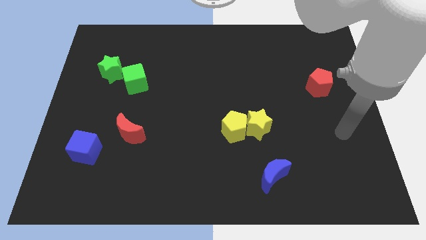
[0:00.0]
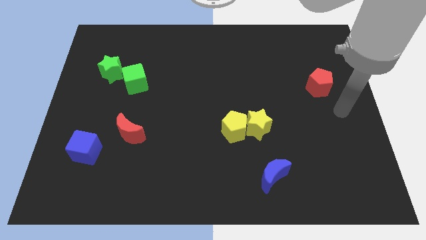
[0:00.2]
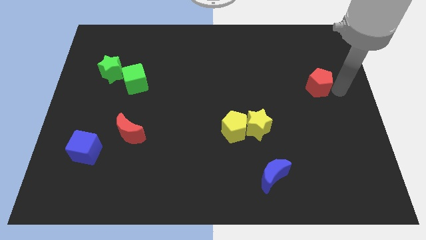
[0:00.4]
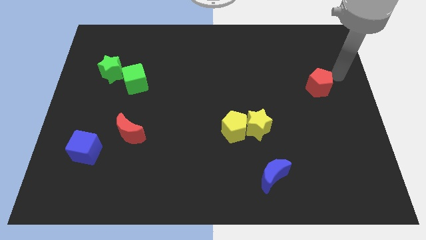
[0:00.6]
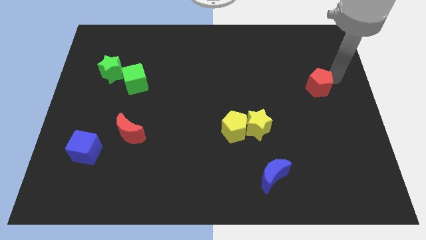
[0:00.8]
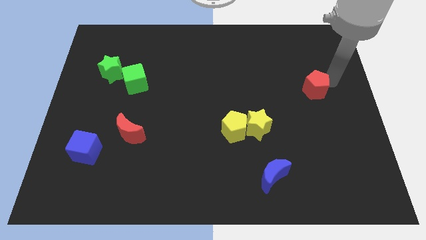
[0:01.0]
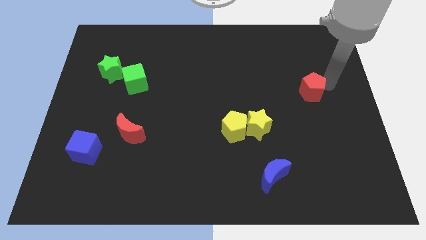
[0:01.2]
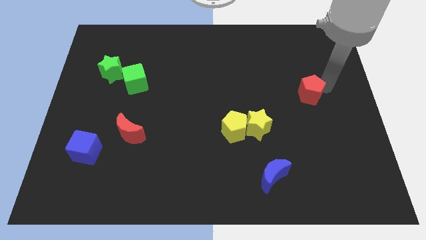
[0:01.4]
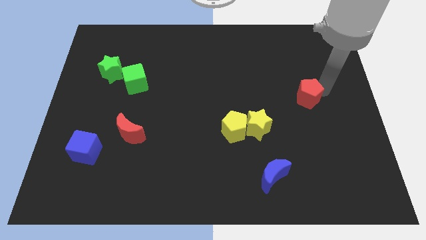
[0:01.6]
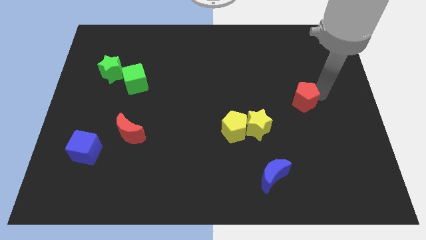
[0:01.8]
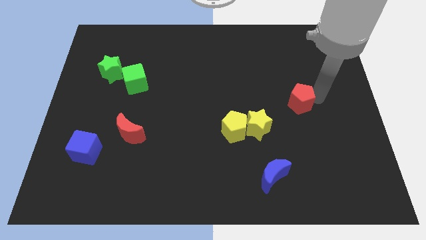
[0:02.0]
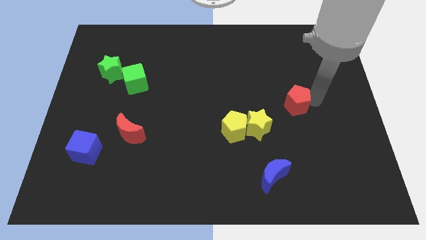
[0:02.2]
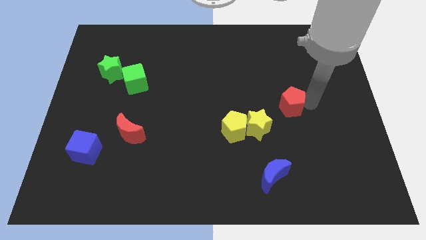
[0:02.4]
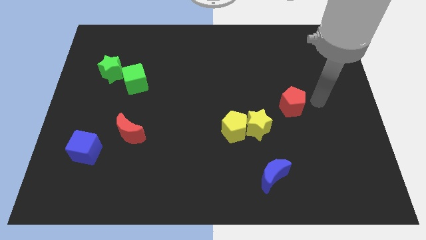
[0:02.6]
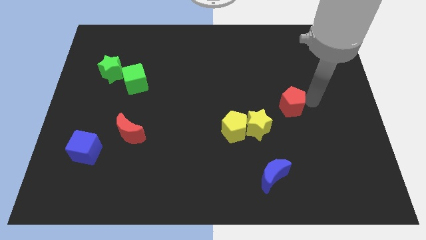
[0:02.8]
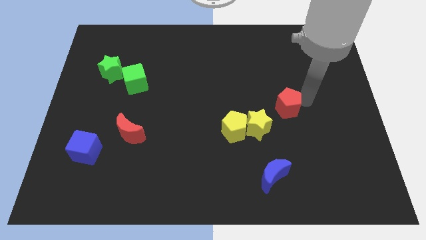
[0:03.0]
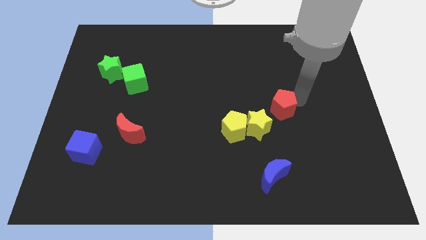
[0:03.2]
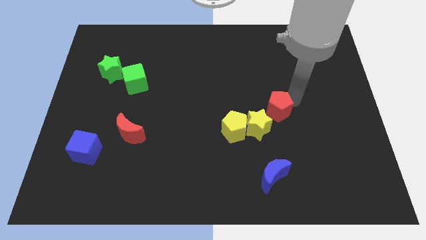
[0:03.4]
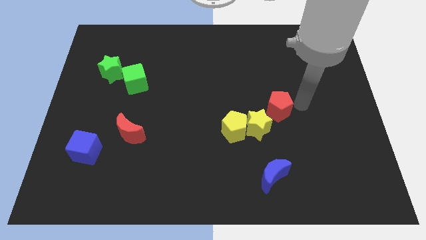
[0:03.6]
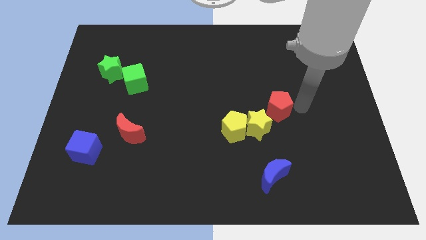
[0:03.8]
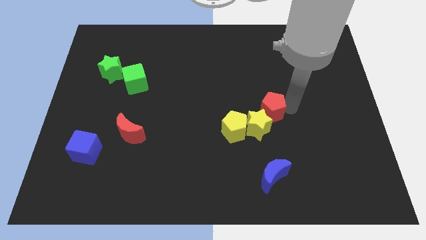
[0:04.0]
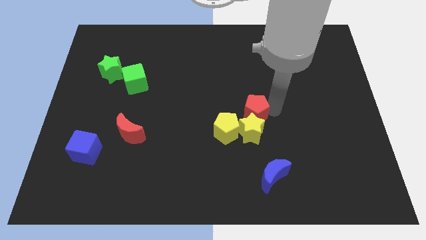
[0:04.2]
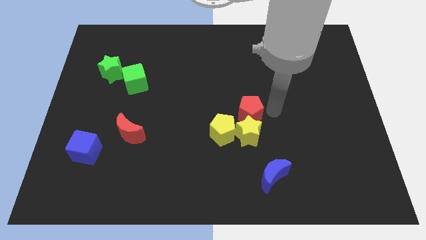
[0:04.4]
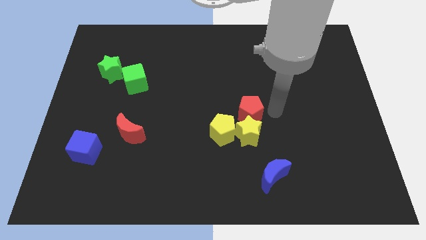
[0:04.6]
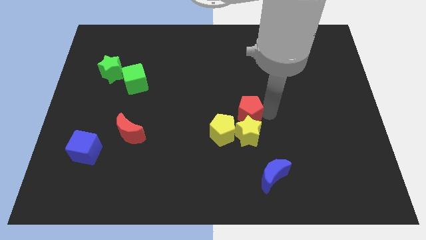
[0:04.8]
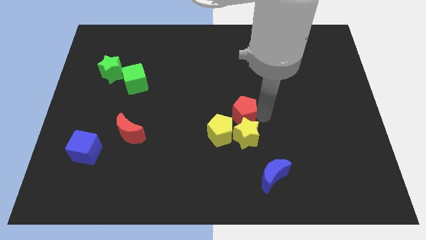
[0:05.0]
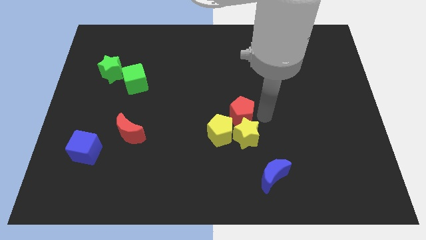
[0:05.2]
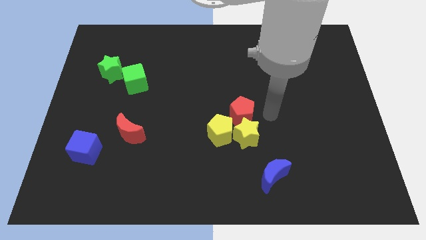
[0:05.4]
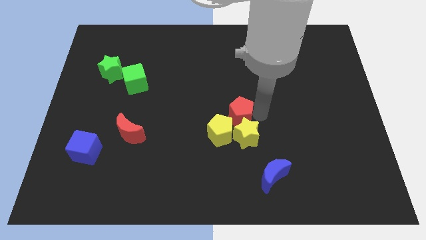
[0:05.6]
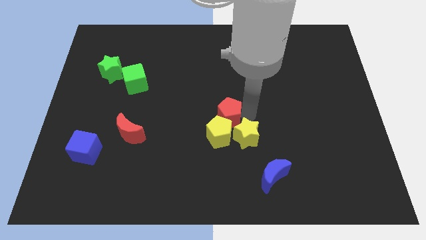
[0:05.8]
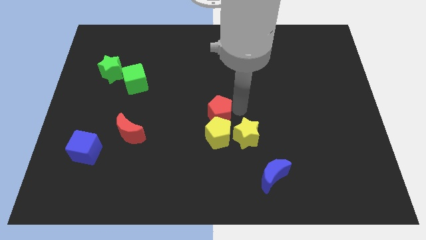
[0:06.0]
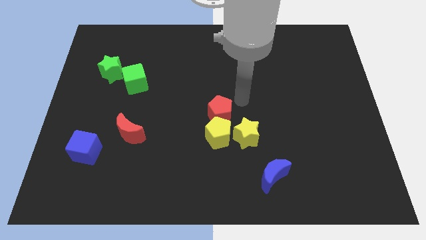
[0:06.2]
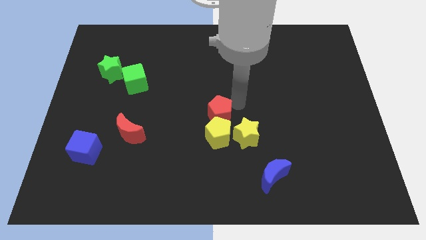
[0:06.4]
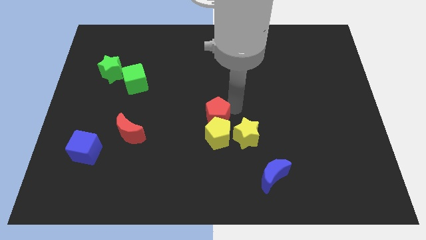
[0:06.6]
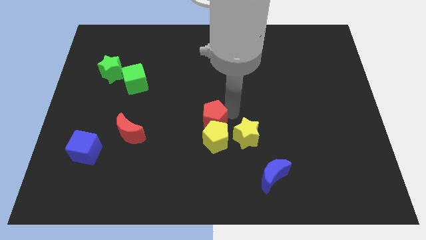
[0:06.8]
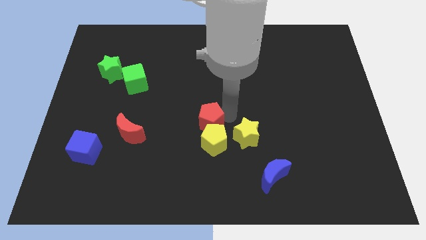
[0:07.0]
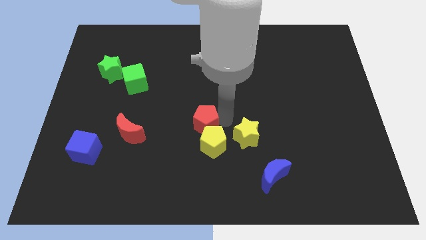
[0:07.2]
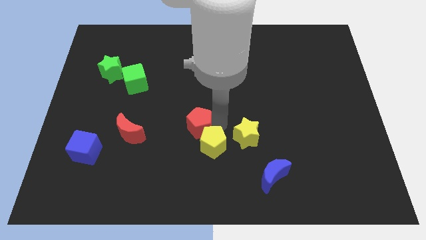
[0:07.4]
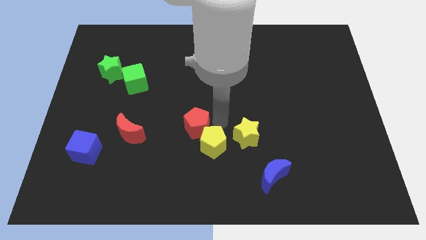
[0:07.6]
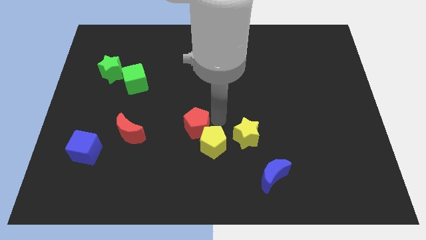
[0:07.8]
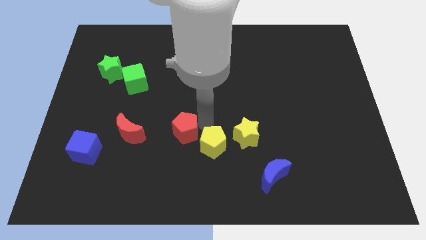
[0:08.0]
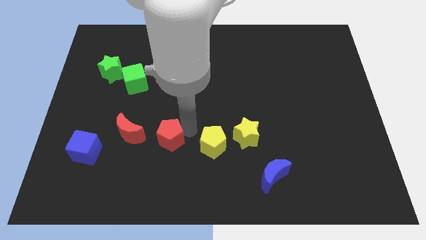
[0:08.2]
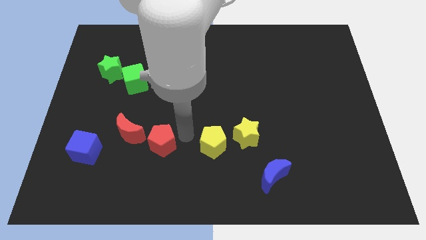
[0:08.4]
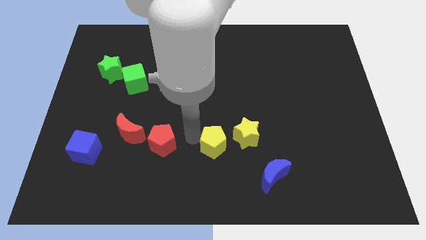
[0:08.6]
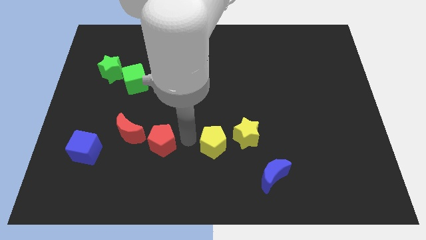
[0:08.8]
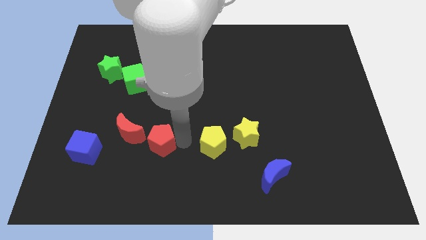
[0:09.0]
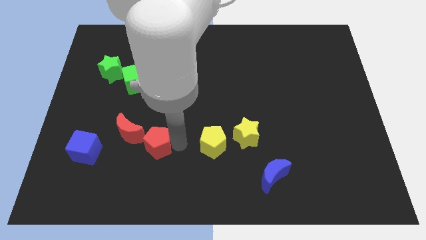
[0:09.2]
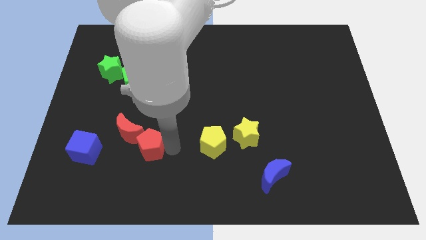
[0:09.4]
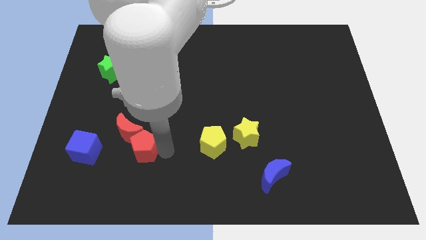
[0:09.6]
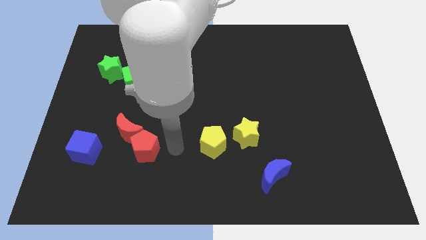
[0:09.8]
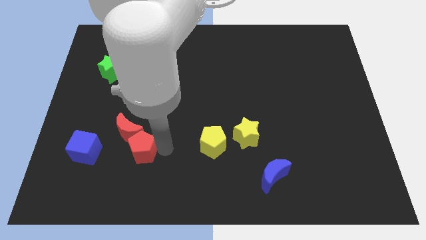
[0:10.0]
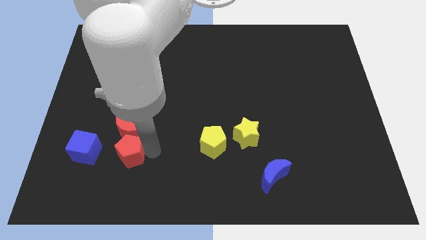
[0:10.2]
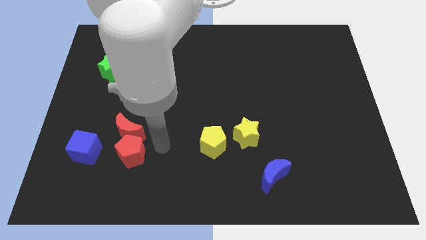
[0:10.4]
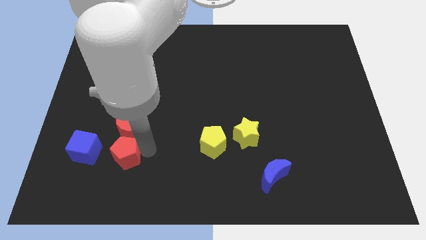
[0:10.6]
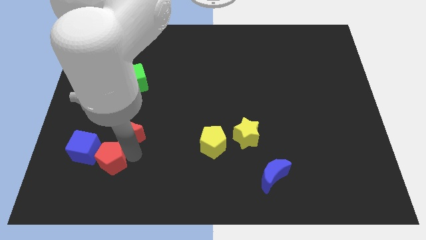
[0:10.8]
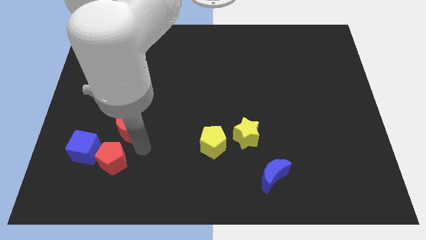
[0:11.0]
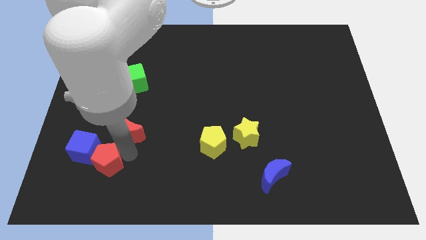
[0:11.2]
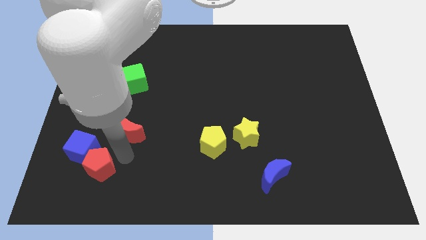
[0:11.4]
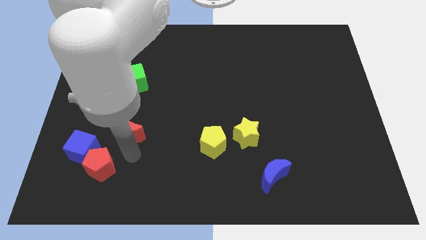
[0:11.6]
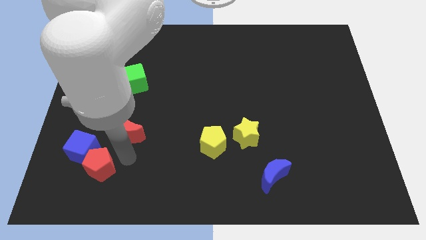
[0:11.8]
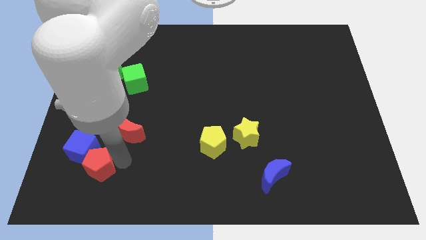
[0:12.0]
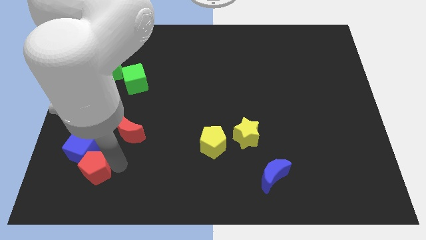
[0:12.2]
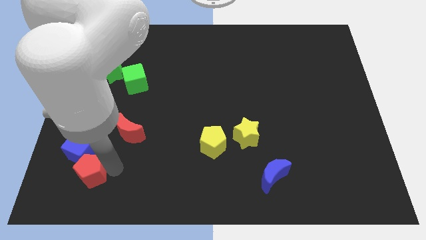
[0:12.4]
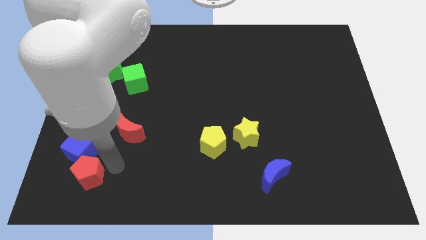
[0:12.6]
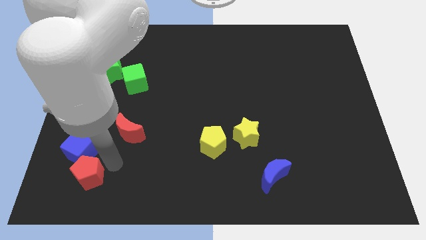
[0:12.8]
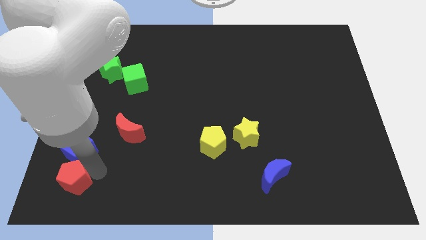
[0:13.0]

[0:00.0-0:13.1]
push the red pentagon to the bottom left of the board
